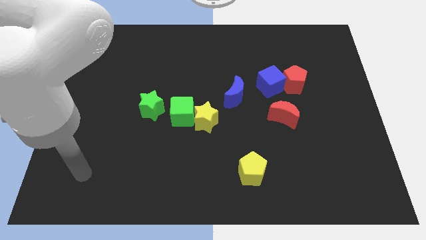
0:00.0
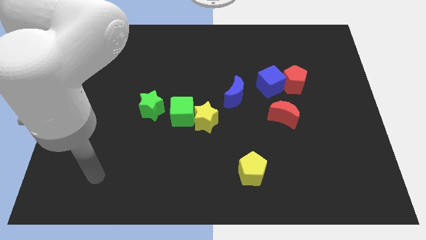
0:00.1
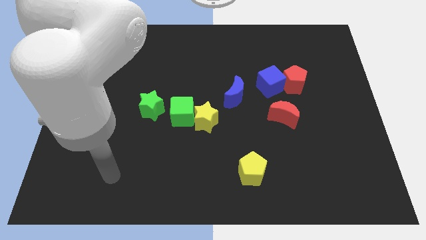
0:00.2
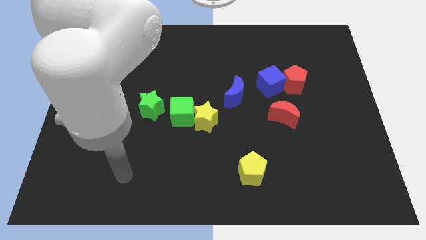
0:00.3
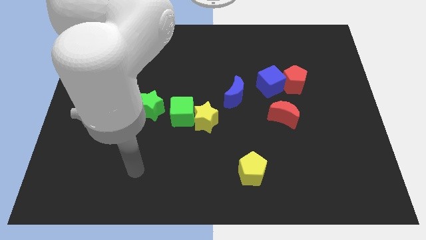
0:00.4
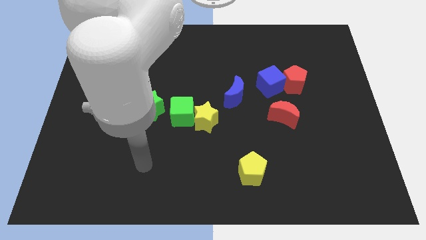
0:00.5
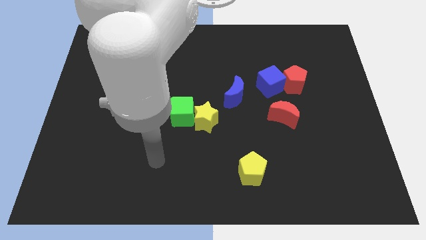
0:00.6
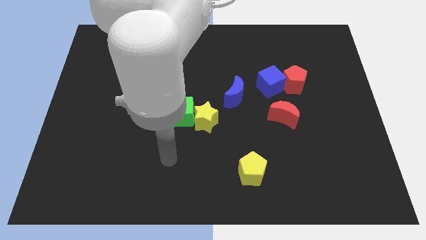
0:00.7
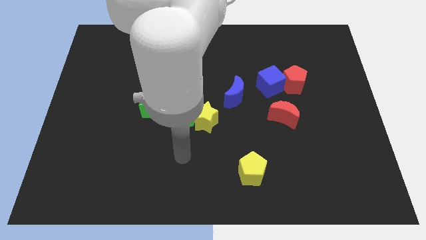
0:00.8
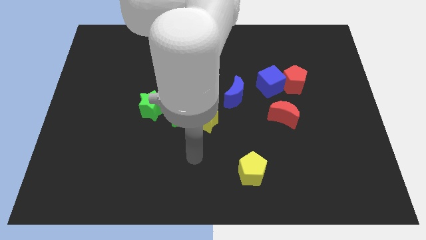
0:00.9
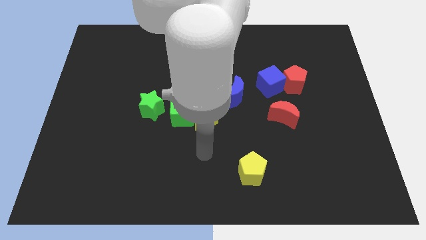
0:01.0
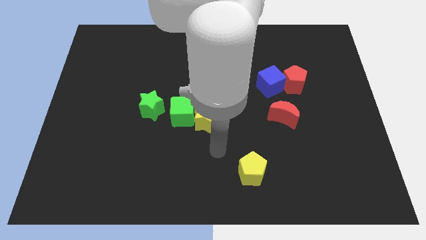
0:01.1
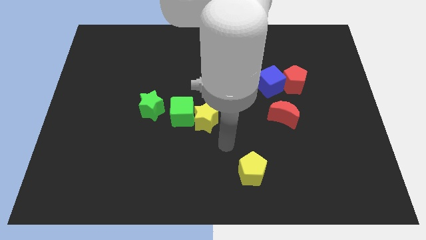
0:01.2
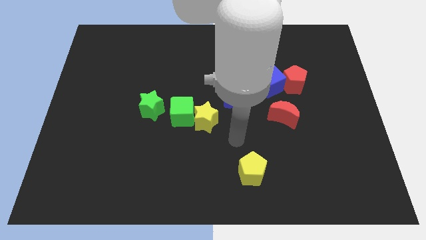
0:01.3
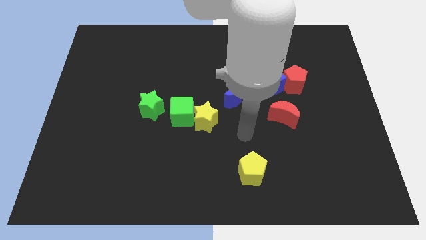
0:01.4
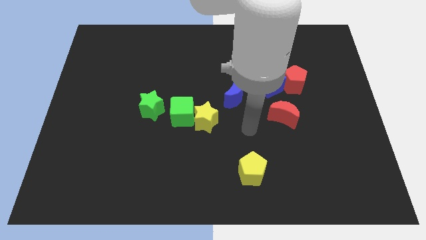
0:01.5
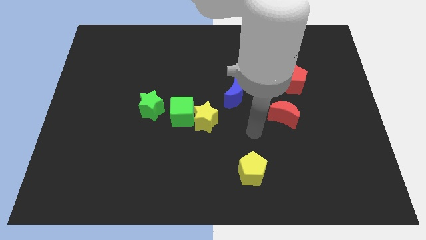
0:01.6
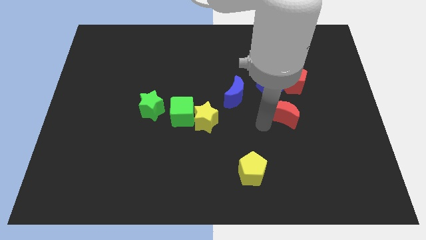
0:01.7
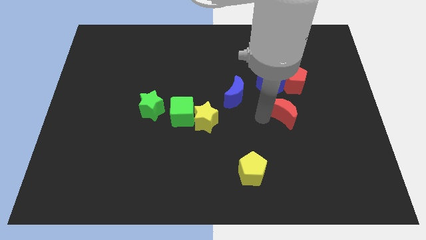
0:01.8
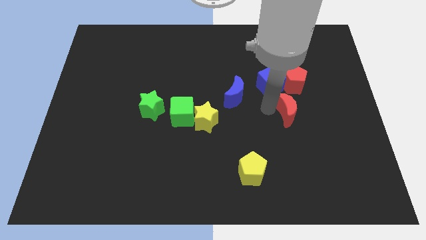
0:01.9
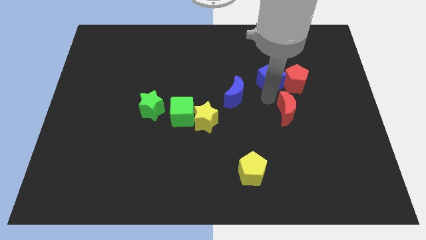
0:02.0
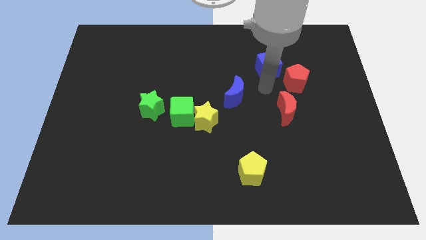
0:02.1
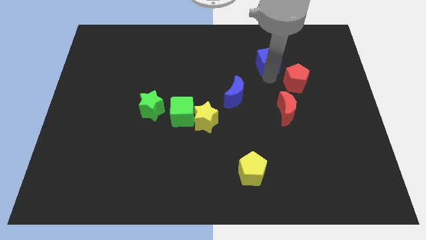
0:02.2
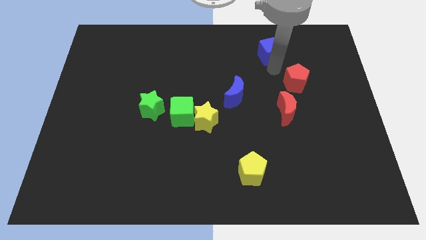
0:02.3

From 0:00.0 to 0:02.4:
pull the red pentagon apart from the blue cube

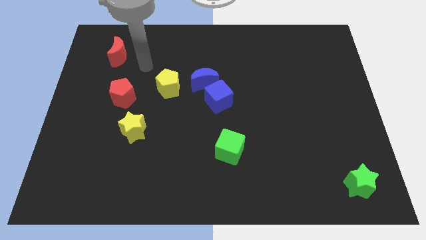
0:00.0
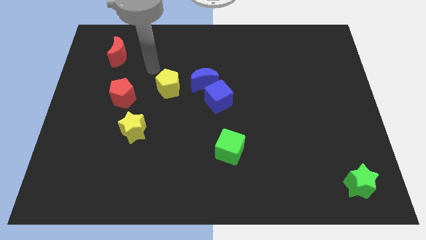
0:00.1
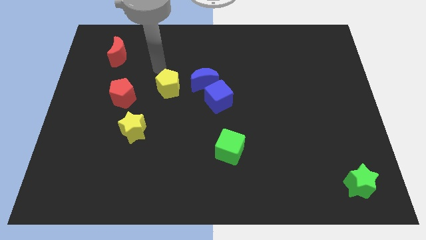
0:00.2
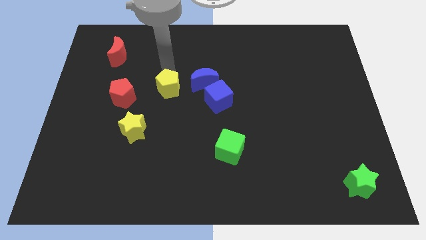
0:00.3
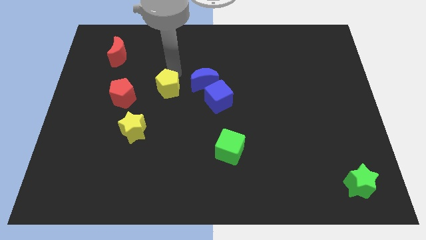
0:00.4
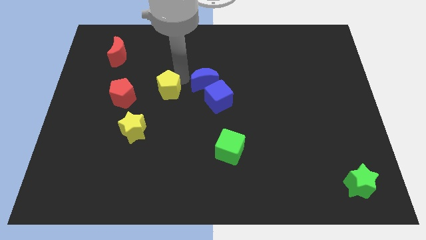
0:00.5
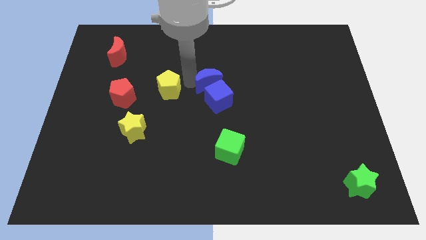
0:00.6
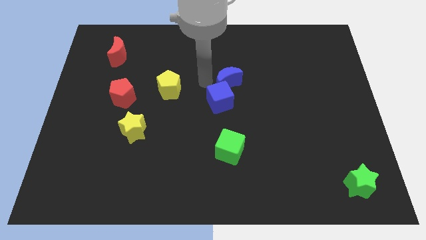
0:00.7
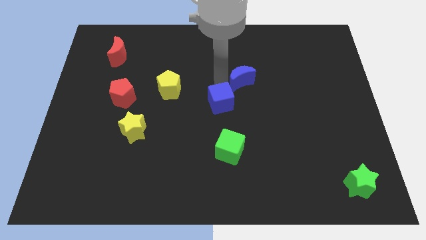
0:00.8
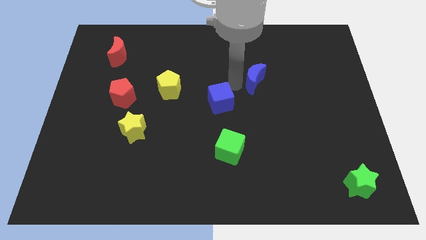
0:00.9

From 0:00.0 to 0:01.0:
pull the blue cube apart from the blue moon

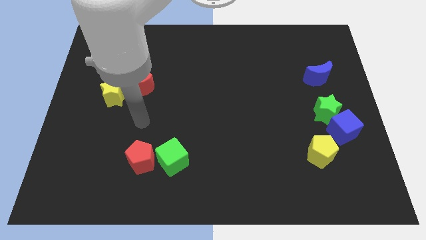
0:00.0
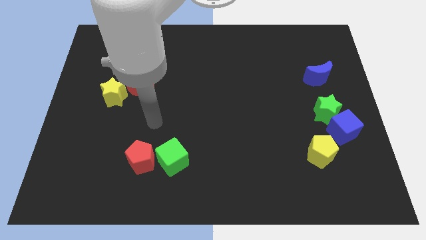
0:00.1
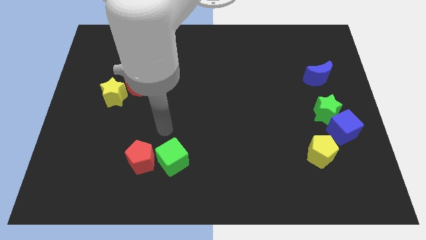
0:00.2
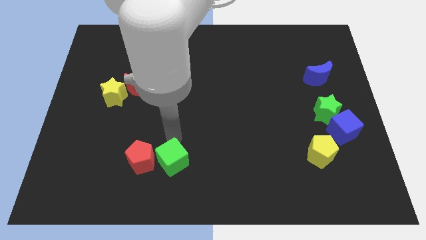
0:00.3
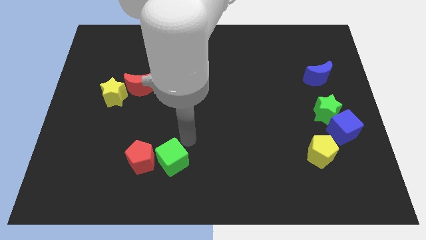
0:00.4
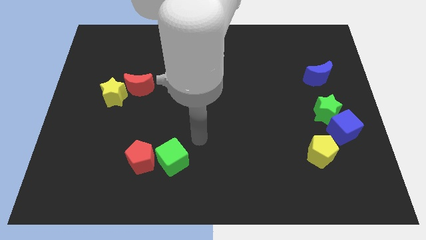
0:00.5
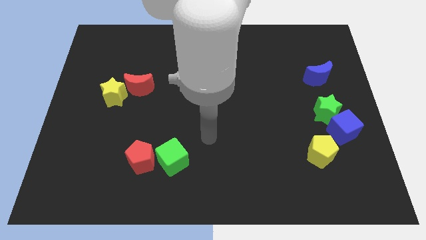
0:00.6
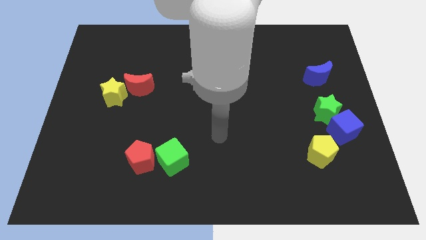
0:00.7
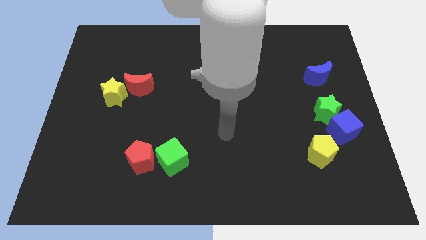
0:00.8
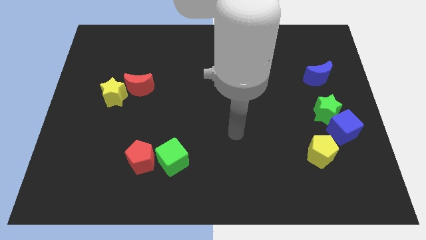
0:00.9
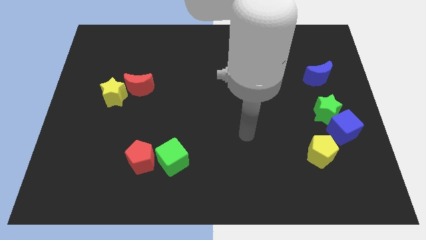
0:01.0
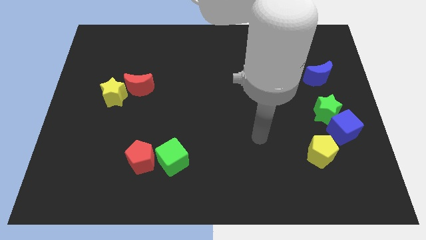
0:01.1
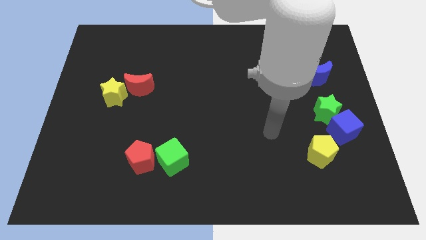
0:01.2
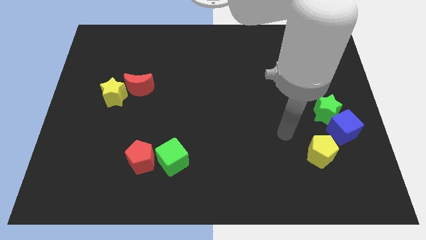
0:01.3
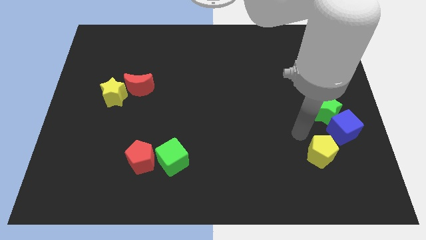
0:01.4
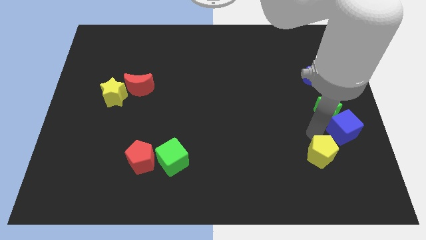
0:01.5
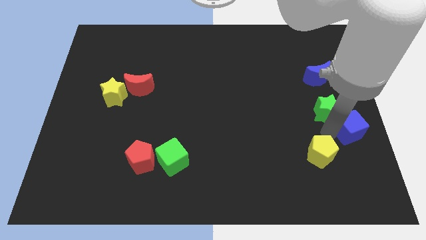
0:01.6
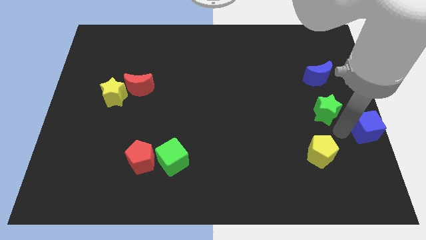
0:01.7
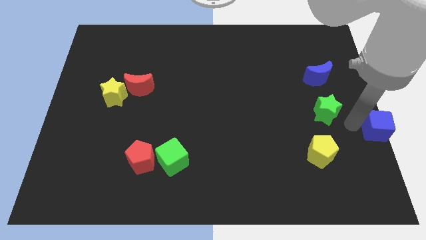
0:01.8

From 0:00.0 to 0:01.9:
move the green star away from the blue cube

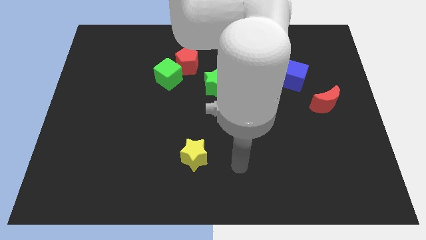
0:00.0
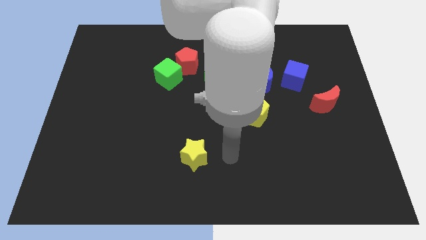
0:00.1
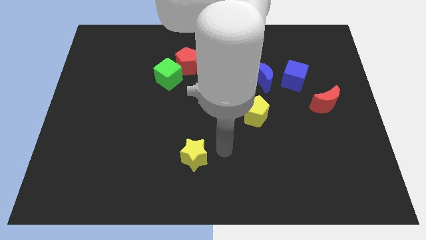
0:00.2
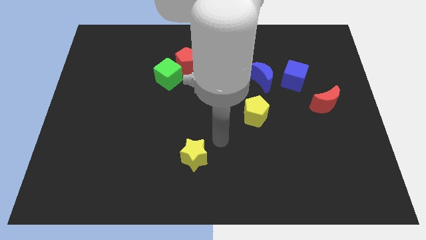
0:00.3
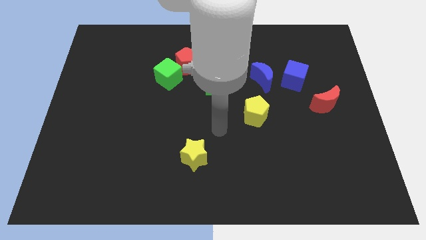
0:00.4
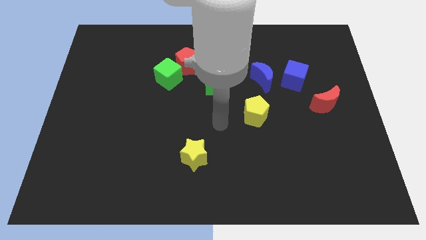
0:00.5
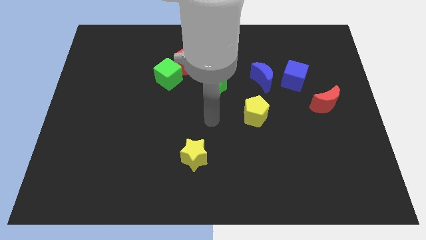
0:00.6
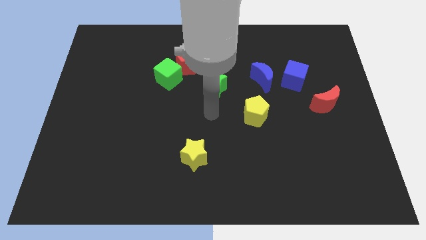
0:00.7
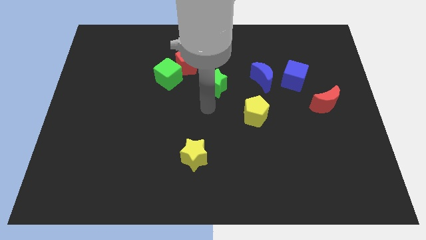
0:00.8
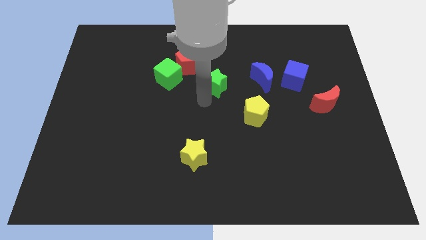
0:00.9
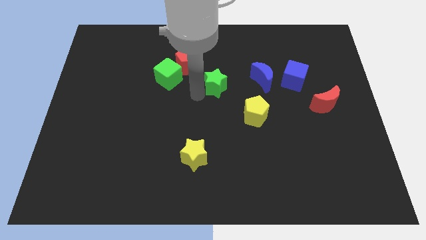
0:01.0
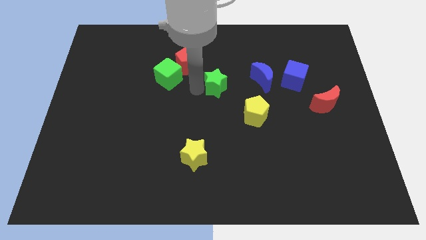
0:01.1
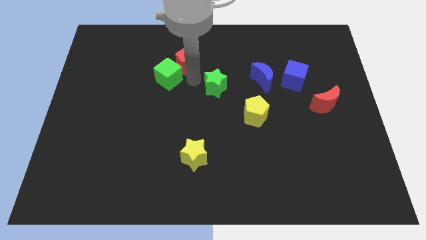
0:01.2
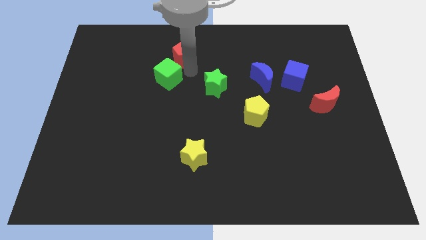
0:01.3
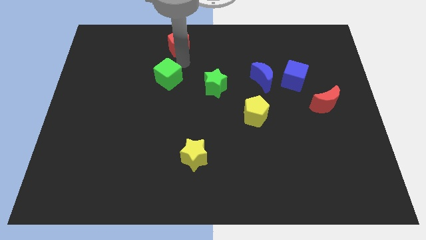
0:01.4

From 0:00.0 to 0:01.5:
pull the green cube apart from the red pentagon

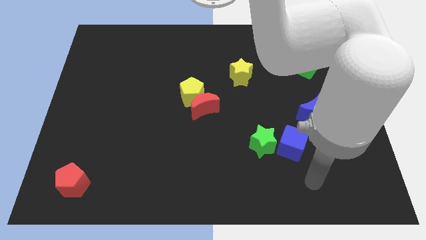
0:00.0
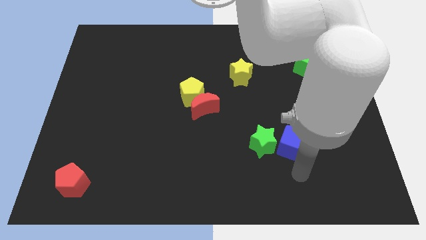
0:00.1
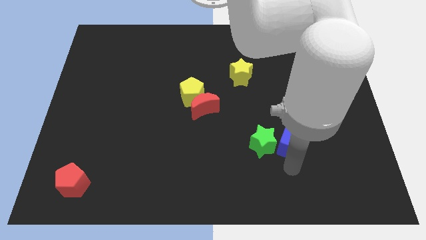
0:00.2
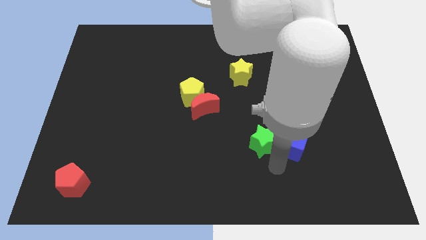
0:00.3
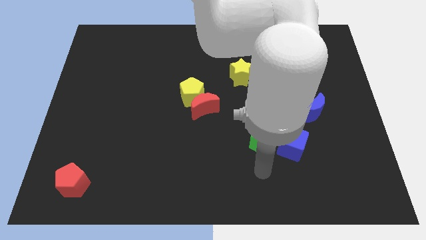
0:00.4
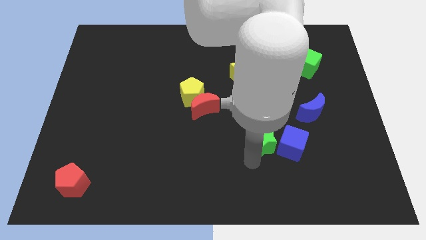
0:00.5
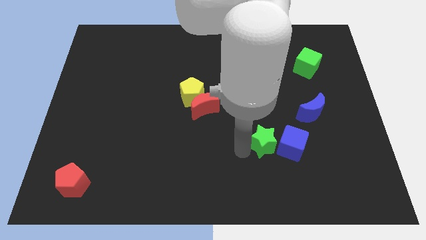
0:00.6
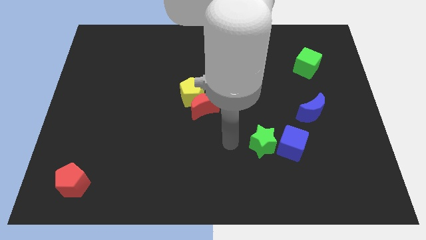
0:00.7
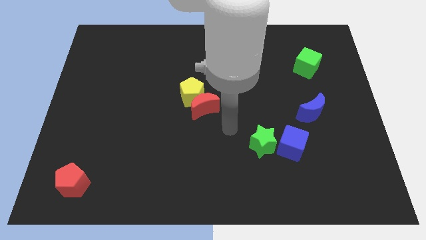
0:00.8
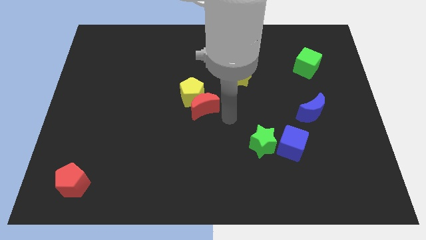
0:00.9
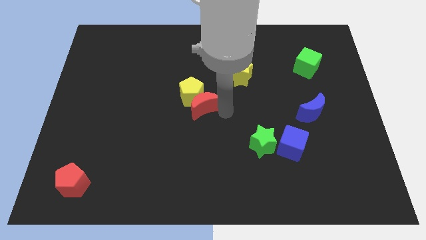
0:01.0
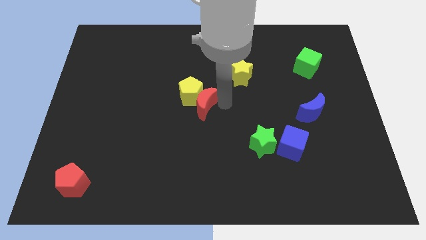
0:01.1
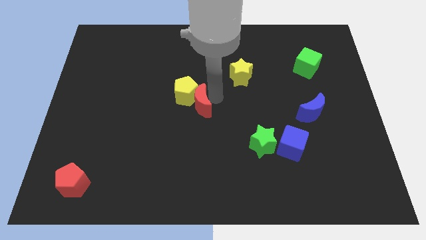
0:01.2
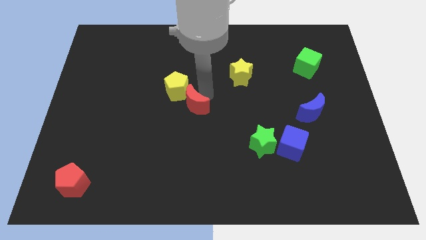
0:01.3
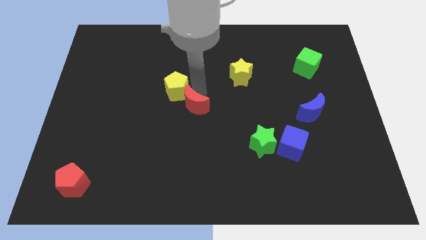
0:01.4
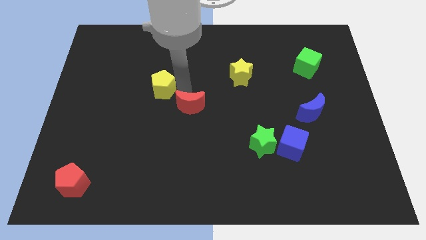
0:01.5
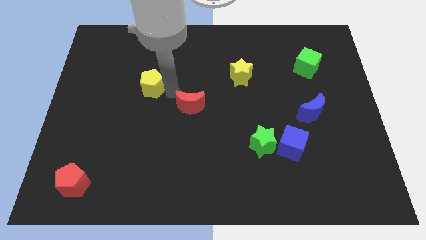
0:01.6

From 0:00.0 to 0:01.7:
move the red moon away from the yellow pentagon

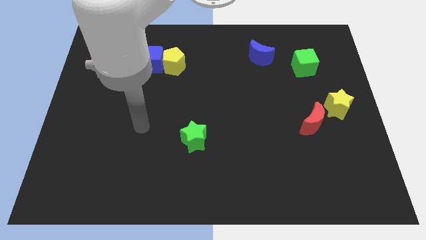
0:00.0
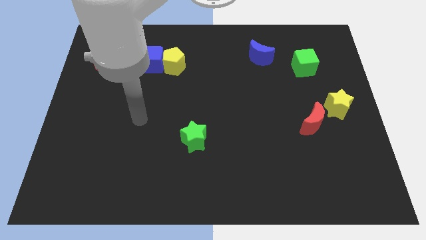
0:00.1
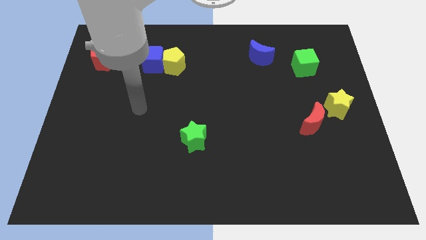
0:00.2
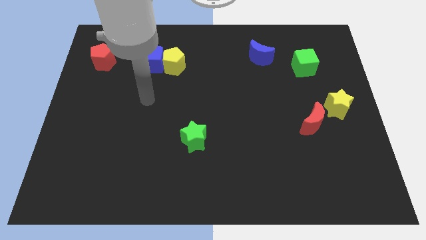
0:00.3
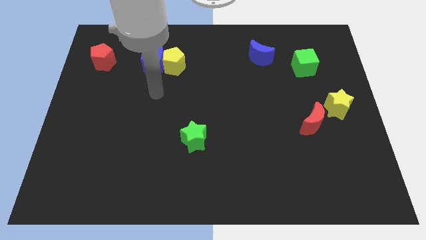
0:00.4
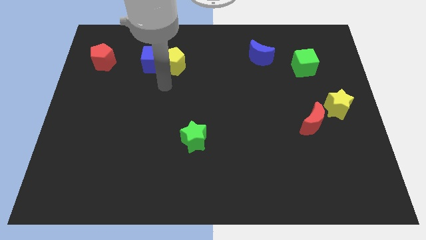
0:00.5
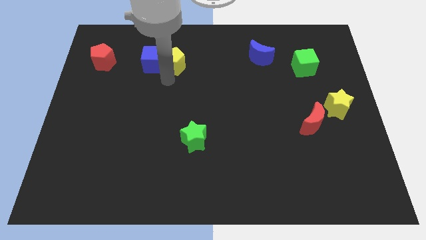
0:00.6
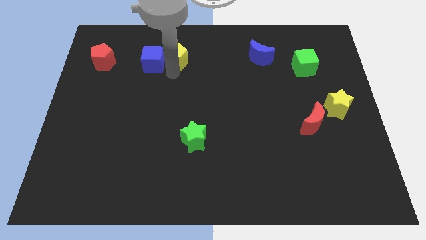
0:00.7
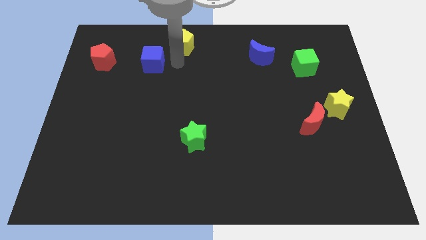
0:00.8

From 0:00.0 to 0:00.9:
move the blue cube away from the yellow pentagon
